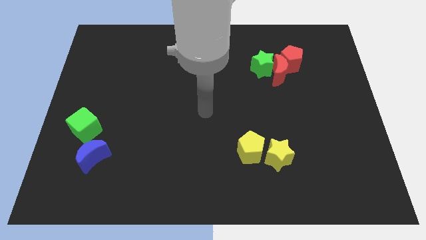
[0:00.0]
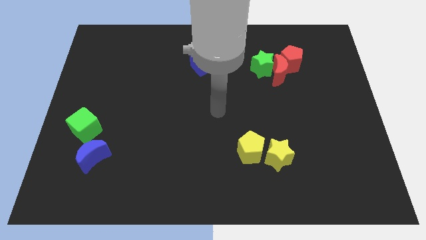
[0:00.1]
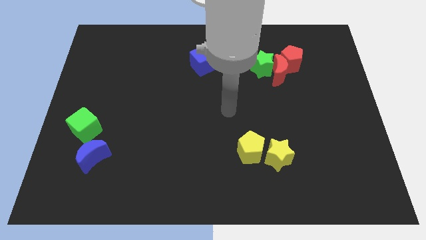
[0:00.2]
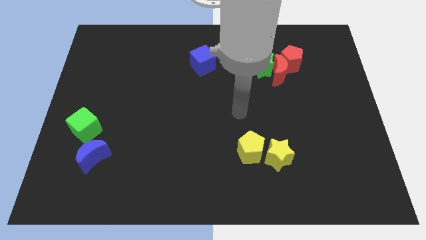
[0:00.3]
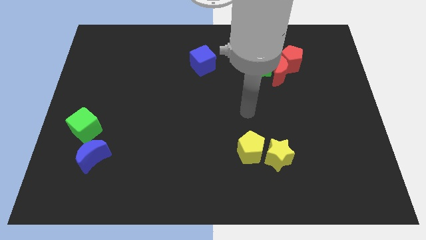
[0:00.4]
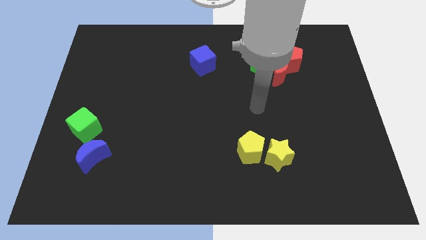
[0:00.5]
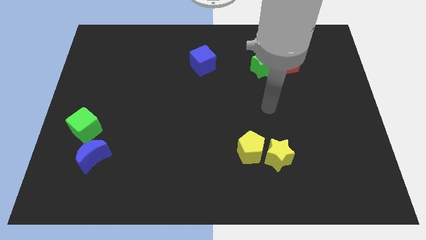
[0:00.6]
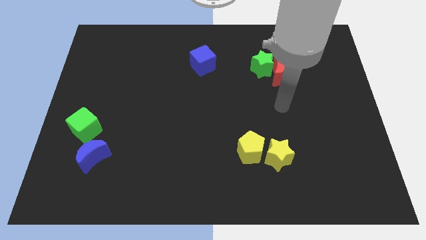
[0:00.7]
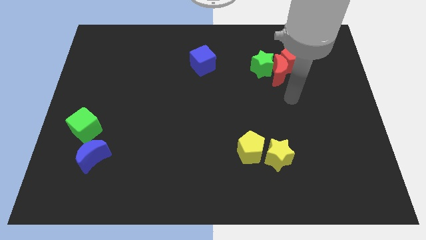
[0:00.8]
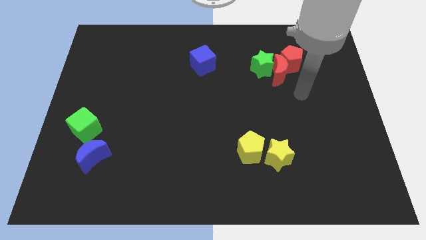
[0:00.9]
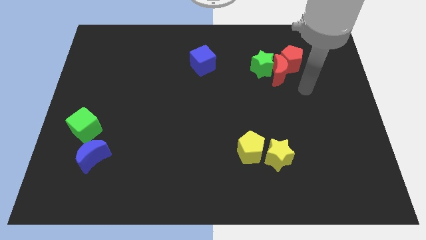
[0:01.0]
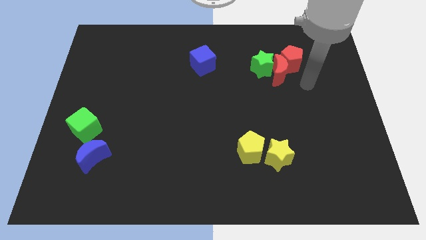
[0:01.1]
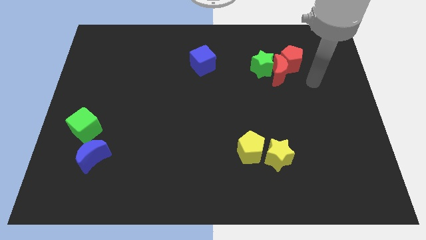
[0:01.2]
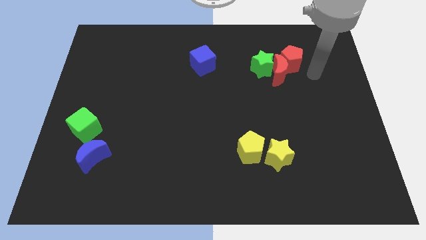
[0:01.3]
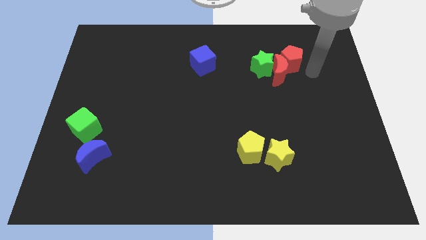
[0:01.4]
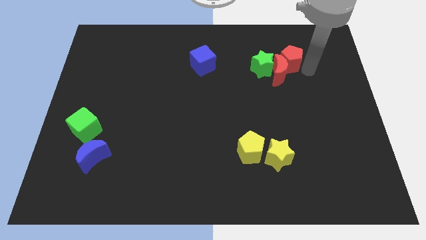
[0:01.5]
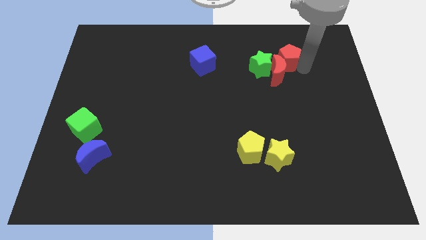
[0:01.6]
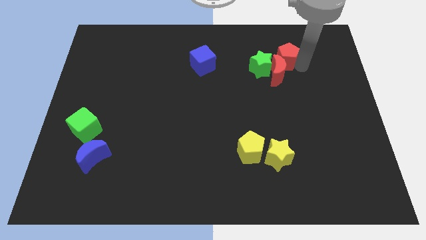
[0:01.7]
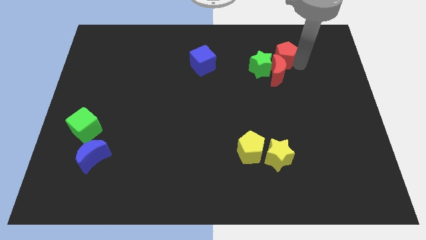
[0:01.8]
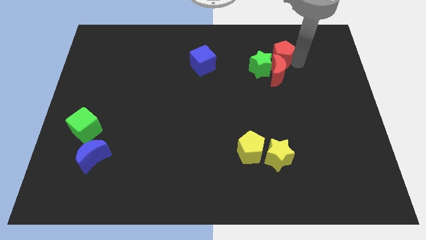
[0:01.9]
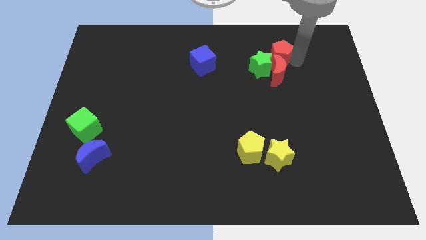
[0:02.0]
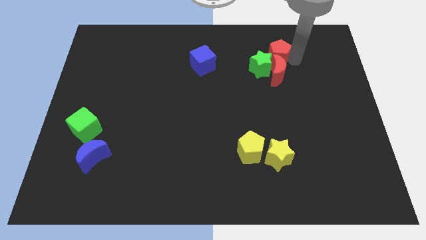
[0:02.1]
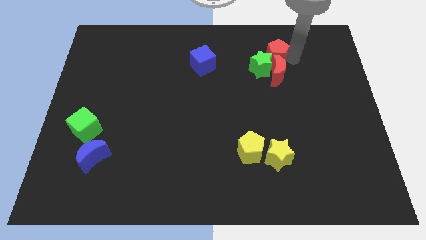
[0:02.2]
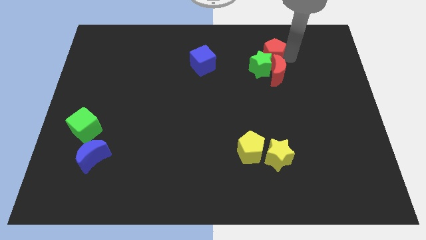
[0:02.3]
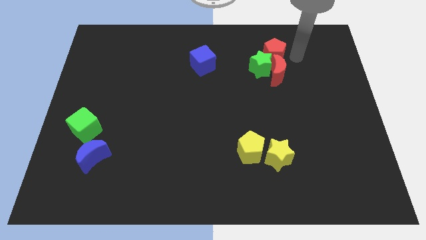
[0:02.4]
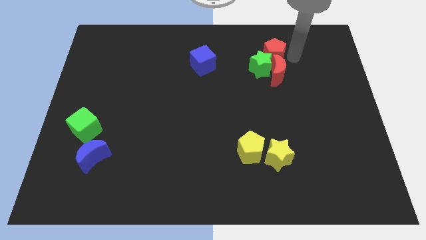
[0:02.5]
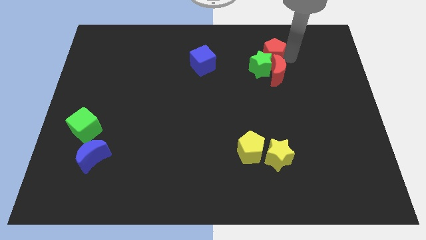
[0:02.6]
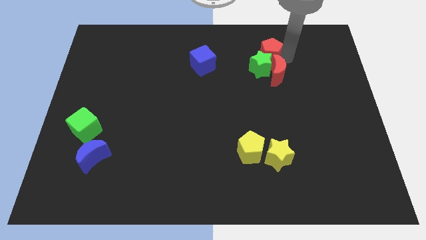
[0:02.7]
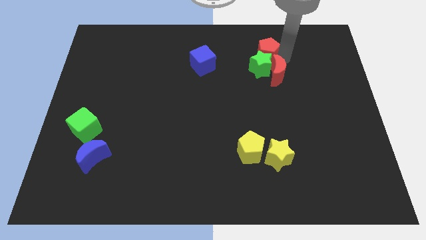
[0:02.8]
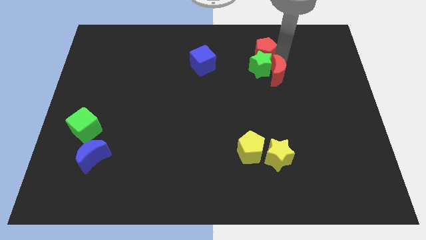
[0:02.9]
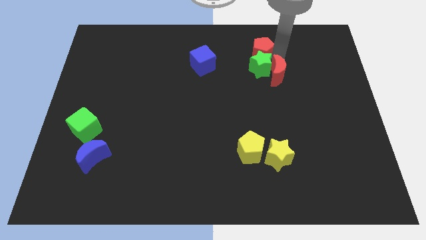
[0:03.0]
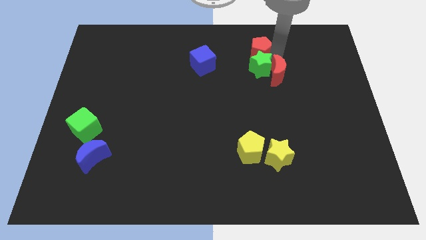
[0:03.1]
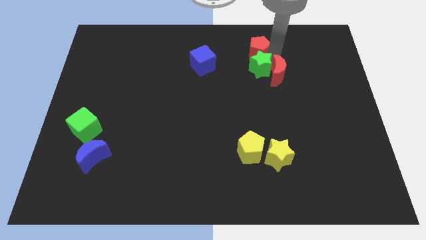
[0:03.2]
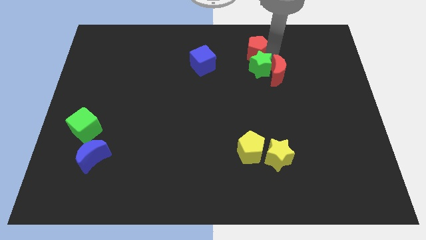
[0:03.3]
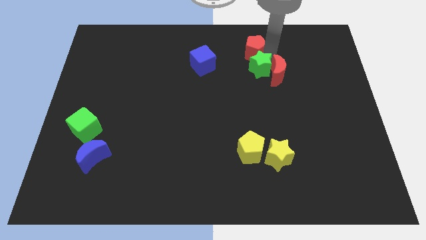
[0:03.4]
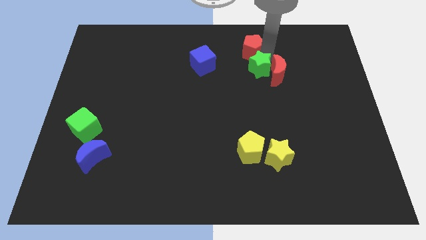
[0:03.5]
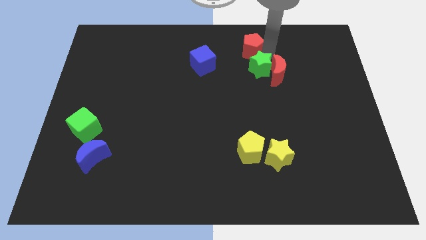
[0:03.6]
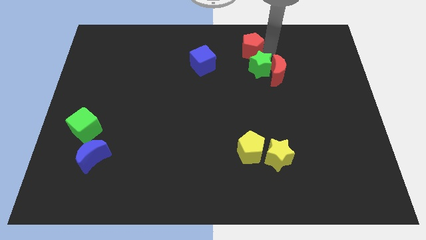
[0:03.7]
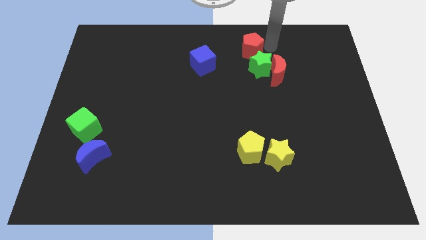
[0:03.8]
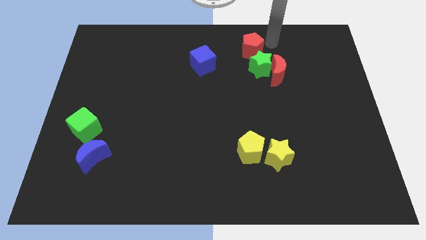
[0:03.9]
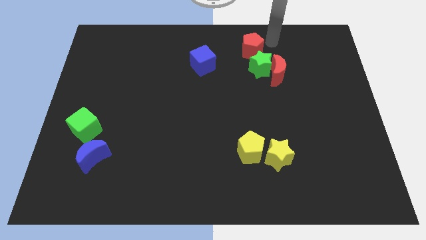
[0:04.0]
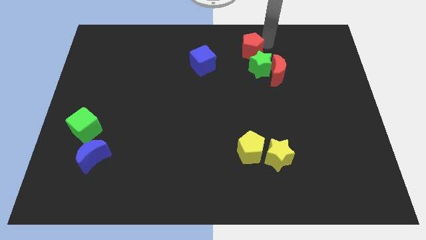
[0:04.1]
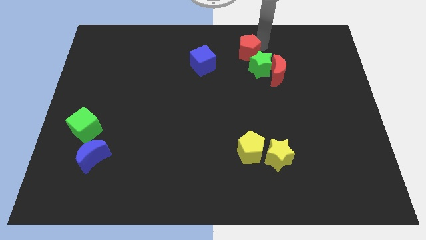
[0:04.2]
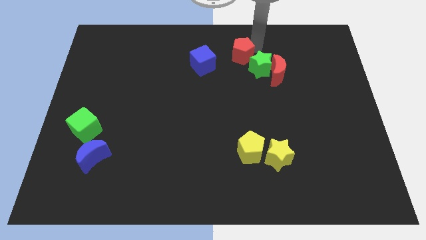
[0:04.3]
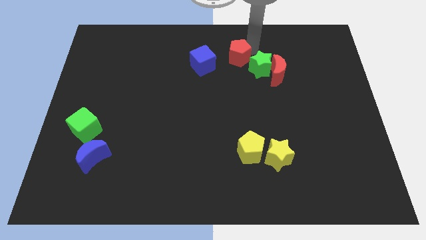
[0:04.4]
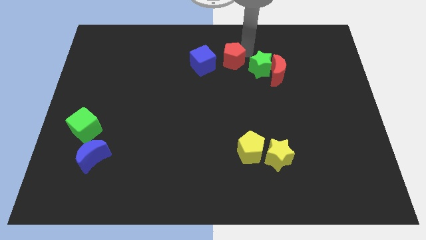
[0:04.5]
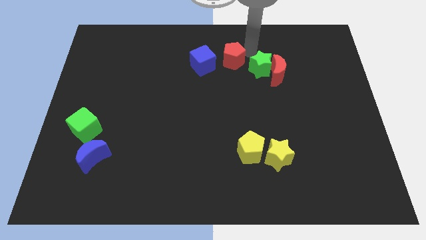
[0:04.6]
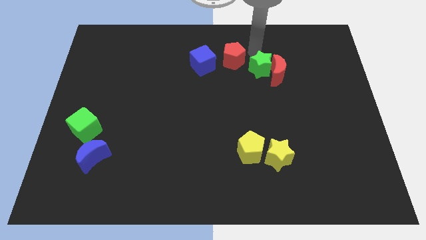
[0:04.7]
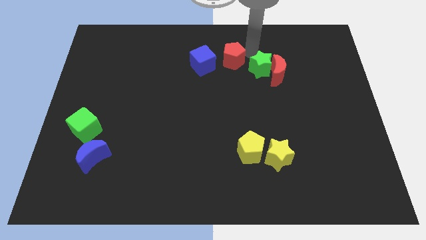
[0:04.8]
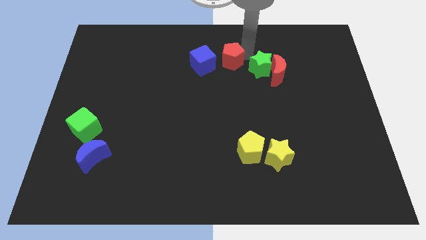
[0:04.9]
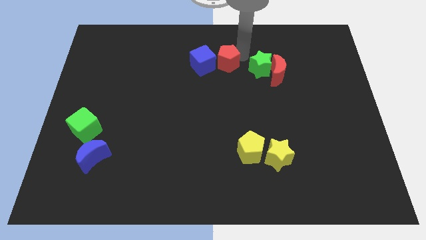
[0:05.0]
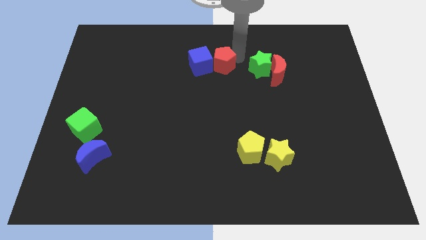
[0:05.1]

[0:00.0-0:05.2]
slide the red pentagon close to the blue cube

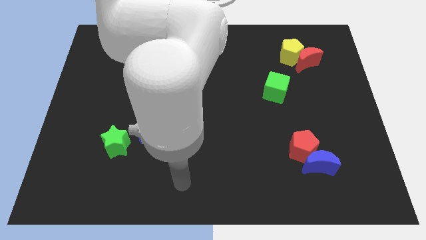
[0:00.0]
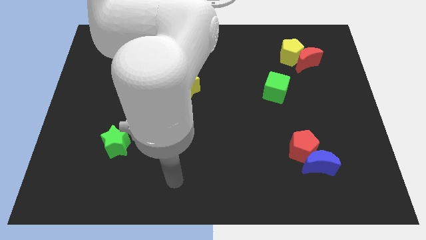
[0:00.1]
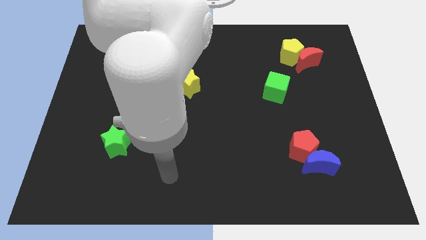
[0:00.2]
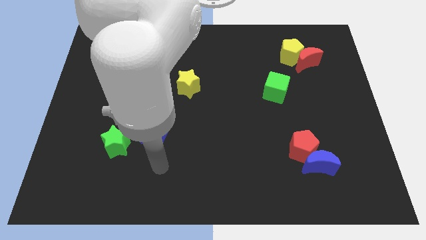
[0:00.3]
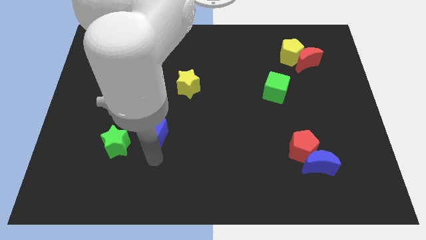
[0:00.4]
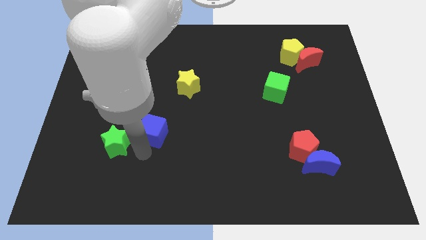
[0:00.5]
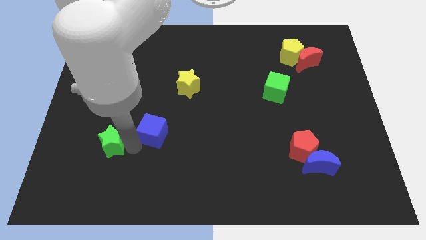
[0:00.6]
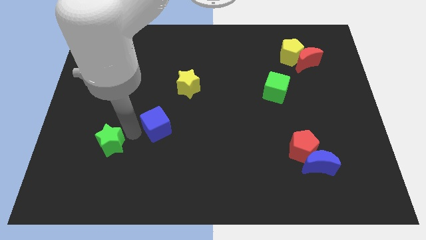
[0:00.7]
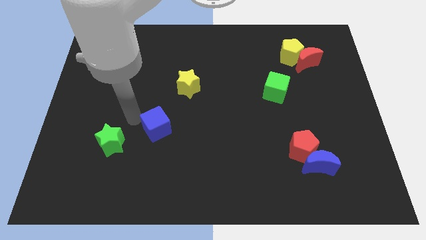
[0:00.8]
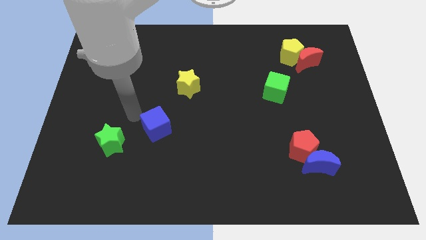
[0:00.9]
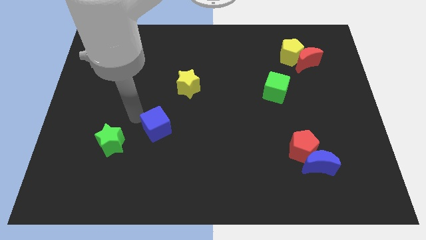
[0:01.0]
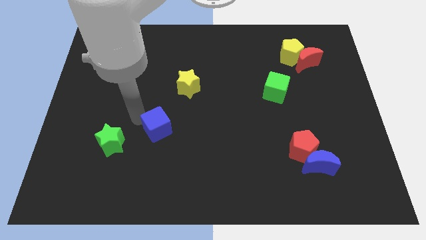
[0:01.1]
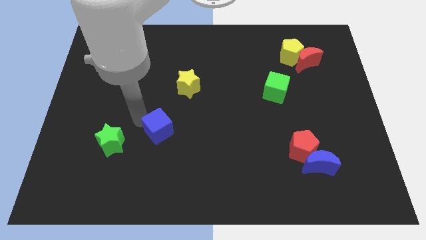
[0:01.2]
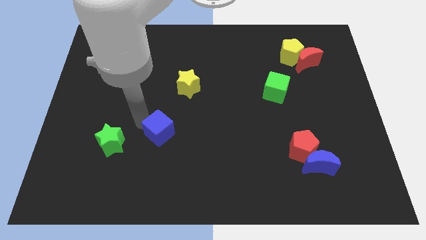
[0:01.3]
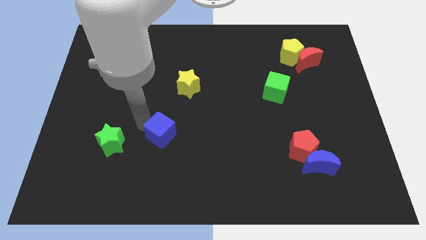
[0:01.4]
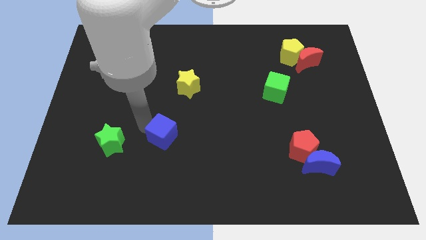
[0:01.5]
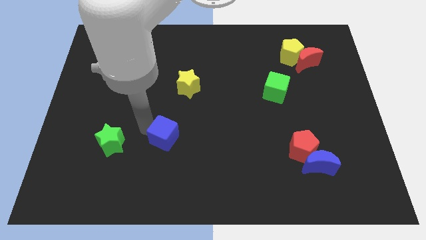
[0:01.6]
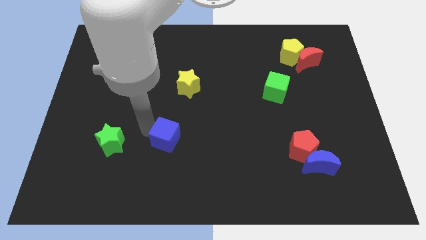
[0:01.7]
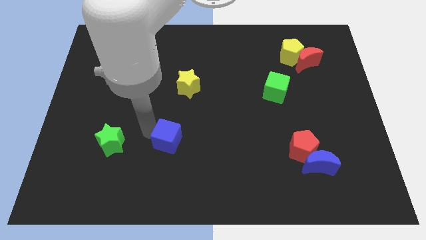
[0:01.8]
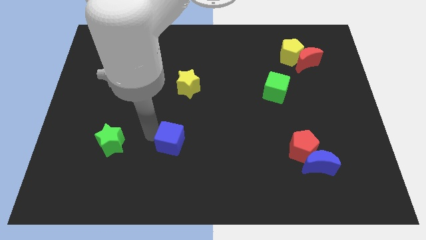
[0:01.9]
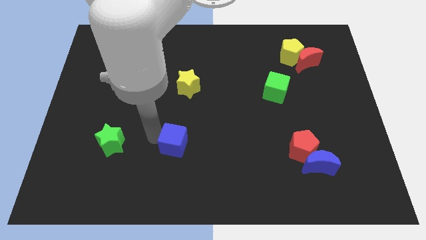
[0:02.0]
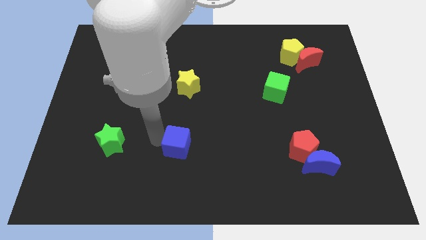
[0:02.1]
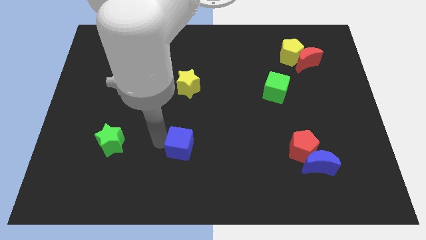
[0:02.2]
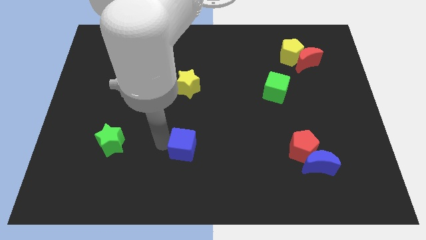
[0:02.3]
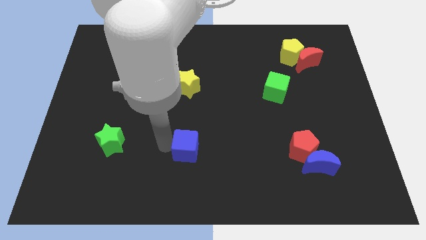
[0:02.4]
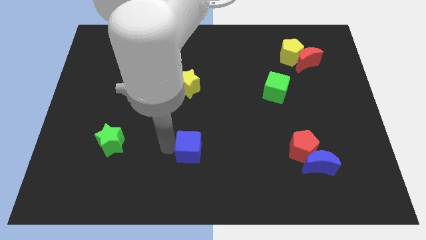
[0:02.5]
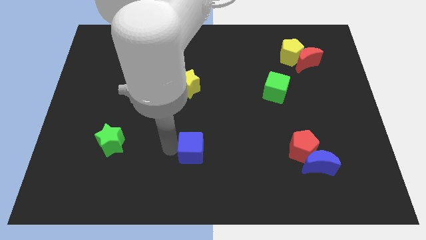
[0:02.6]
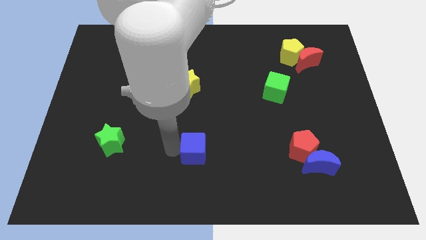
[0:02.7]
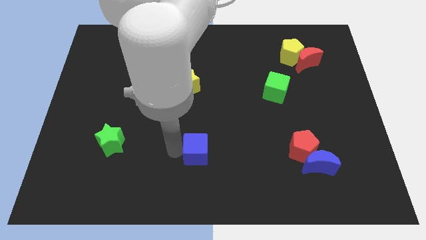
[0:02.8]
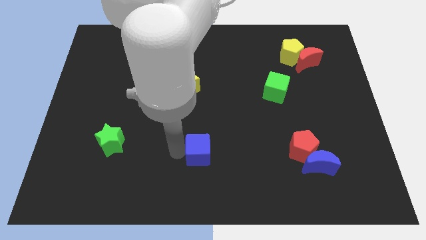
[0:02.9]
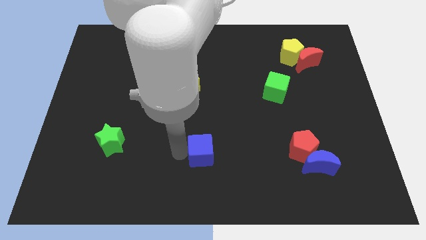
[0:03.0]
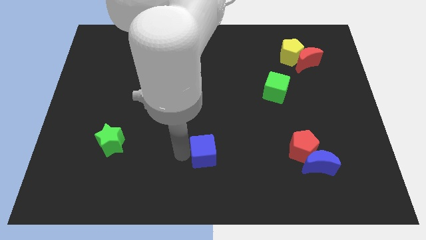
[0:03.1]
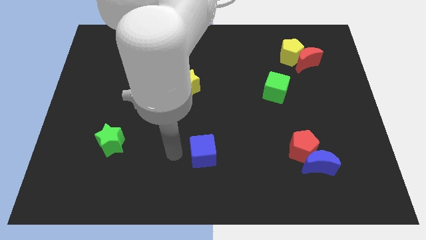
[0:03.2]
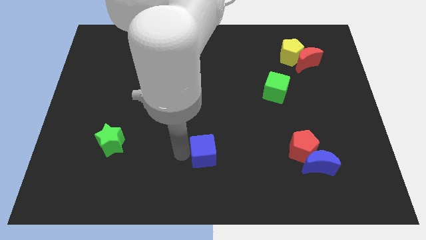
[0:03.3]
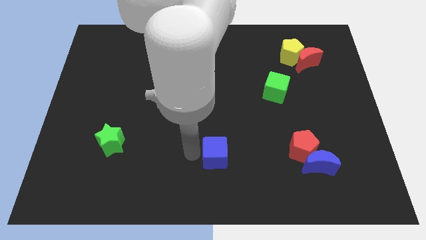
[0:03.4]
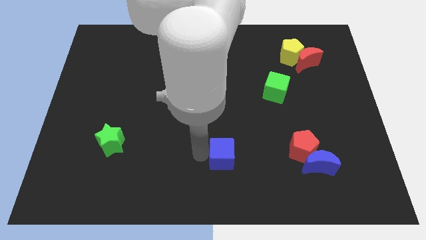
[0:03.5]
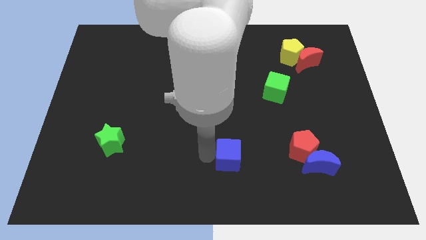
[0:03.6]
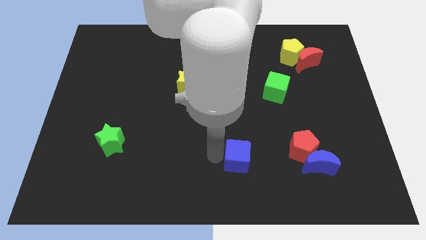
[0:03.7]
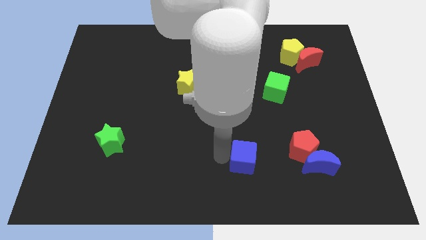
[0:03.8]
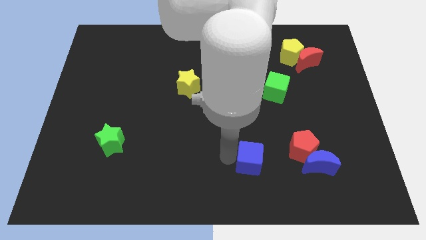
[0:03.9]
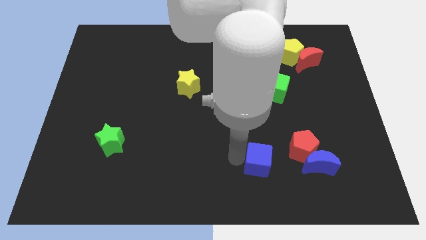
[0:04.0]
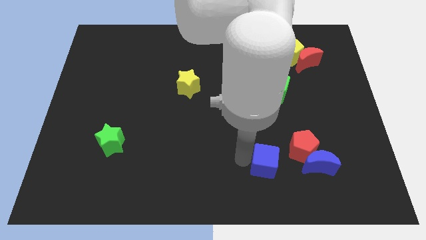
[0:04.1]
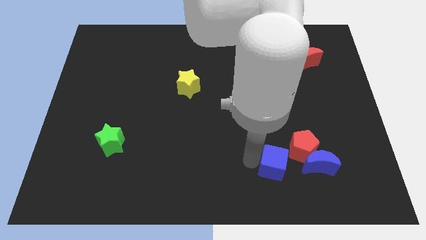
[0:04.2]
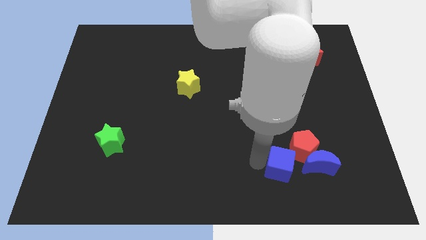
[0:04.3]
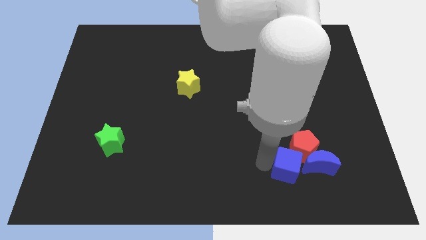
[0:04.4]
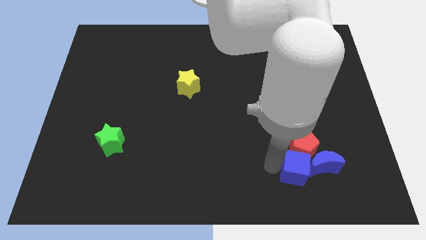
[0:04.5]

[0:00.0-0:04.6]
push the blue cube towards the blue moon
